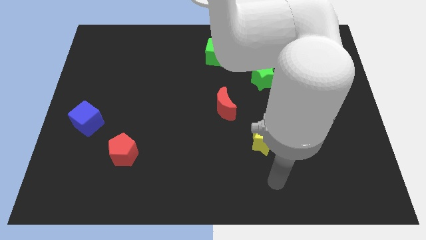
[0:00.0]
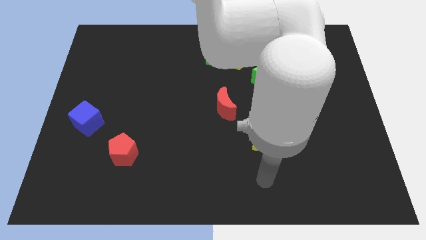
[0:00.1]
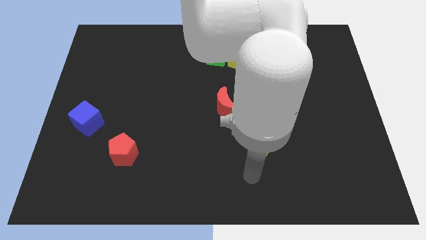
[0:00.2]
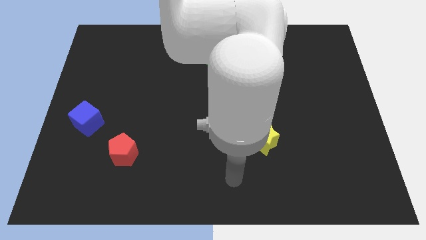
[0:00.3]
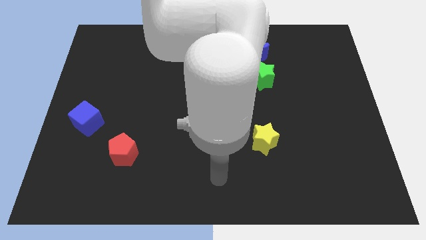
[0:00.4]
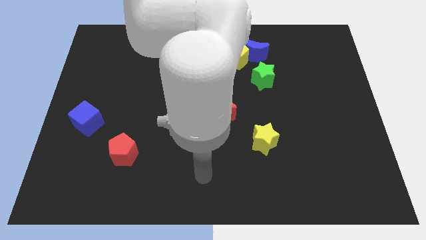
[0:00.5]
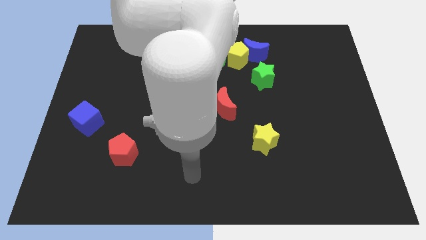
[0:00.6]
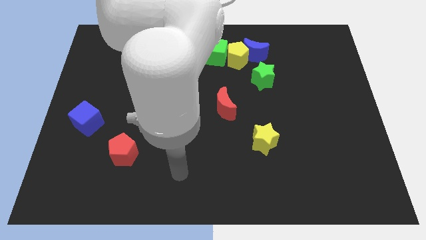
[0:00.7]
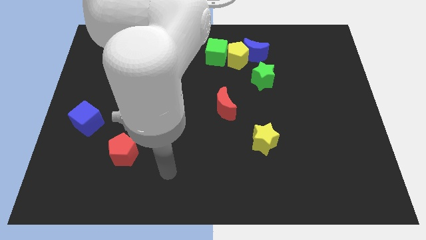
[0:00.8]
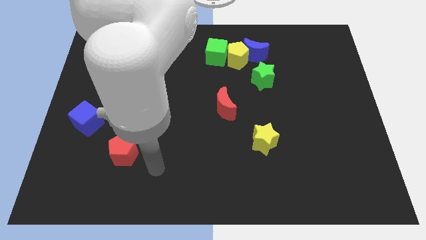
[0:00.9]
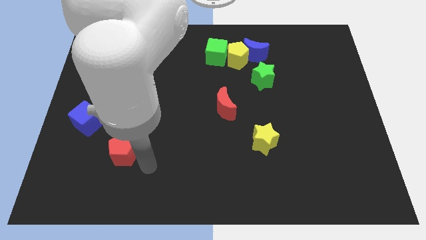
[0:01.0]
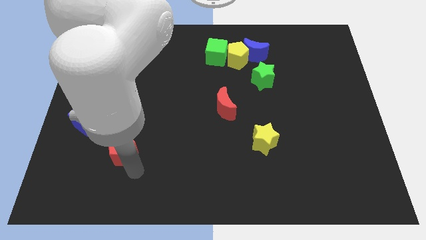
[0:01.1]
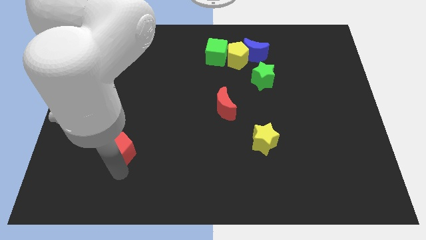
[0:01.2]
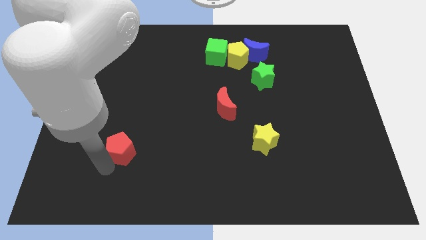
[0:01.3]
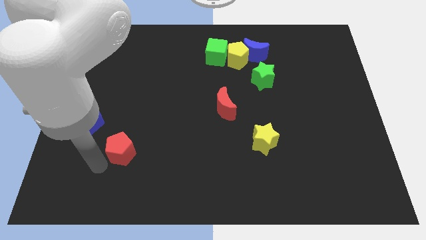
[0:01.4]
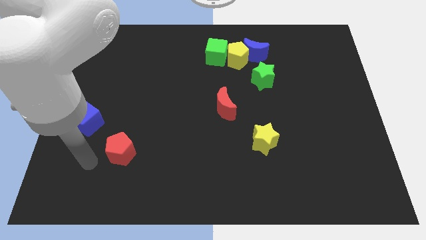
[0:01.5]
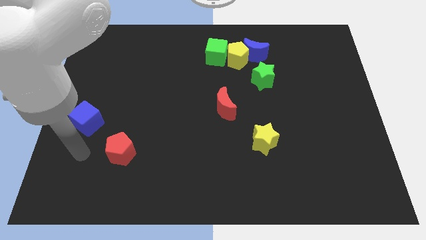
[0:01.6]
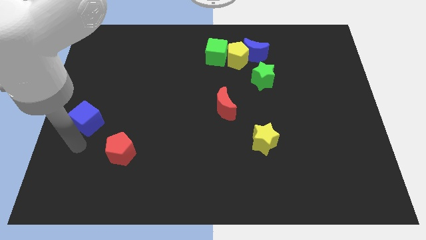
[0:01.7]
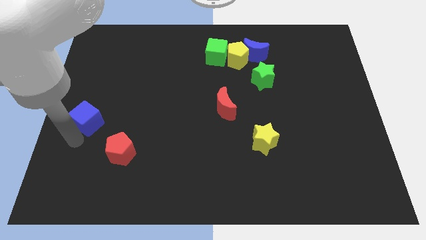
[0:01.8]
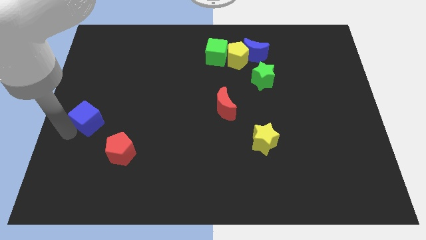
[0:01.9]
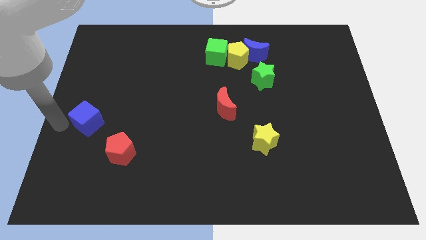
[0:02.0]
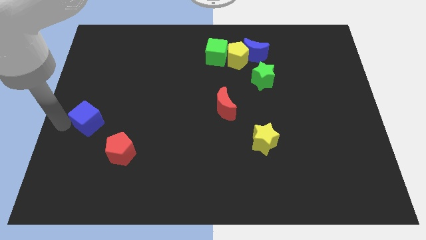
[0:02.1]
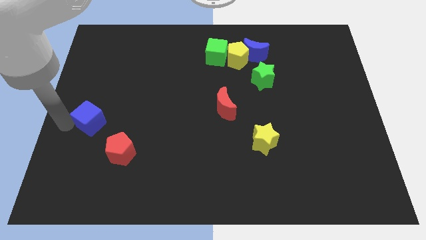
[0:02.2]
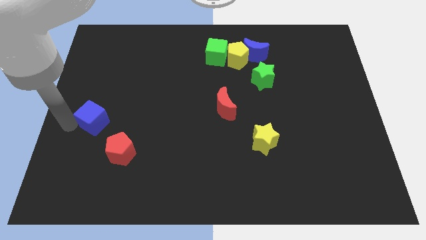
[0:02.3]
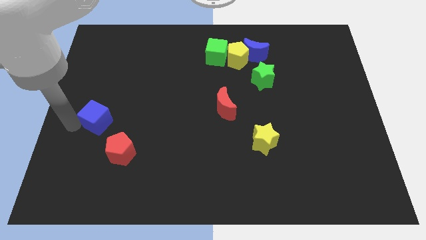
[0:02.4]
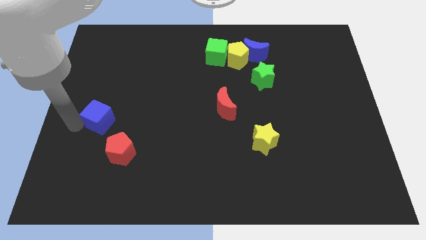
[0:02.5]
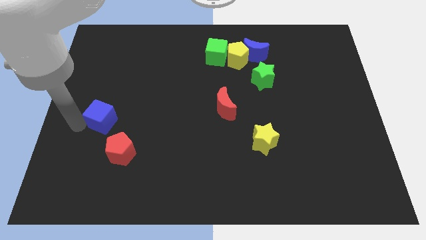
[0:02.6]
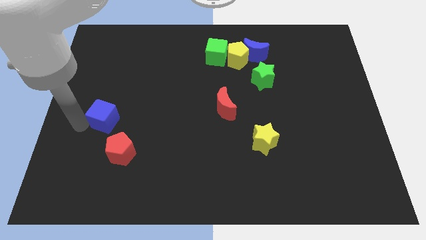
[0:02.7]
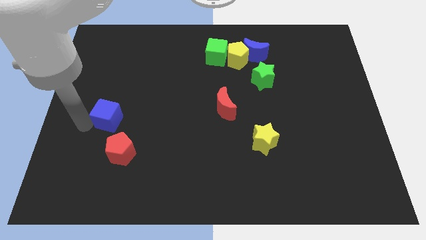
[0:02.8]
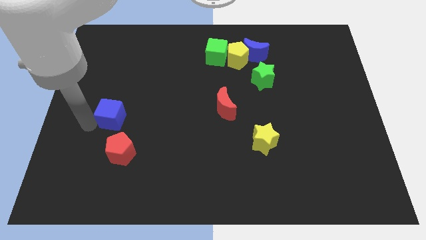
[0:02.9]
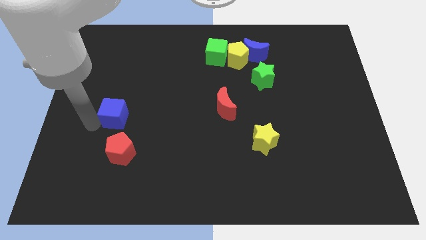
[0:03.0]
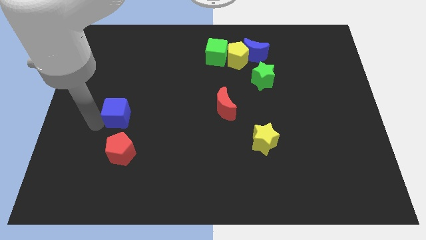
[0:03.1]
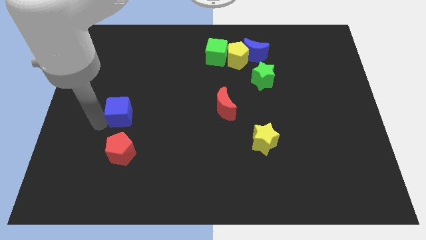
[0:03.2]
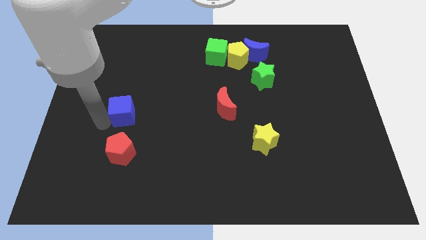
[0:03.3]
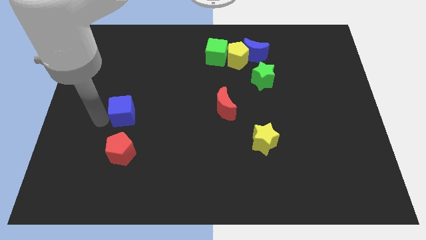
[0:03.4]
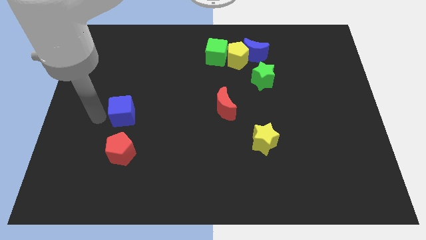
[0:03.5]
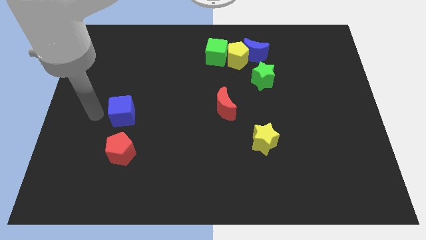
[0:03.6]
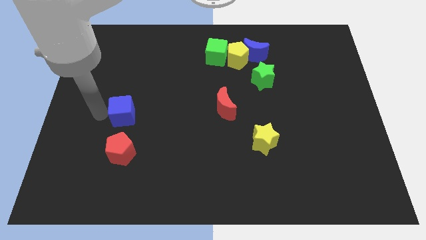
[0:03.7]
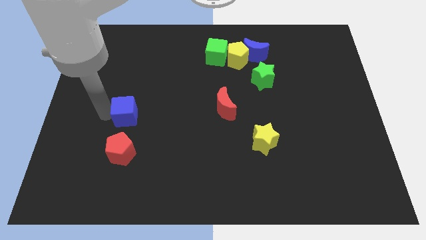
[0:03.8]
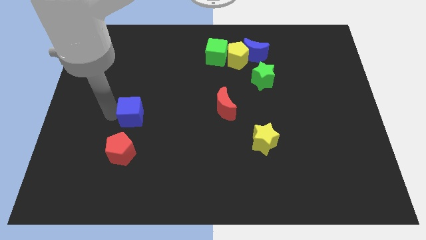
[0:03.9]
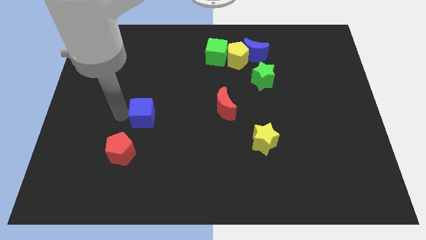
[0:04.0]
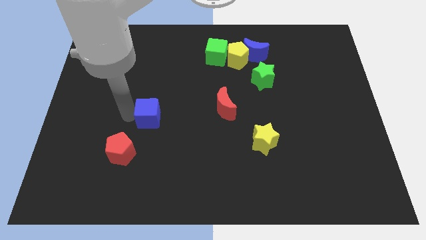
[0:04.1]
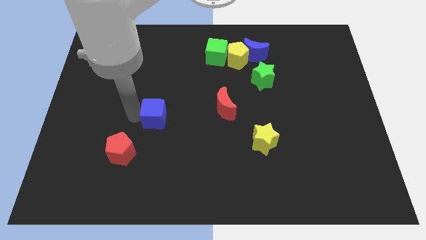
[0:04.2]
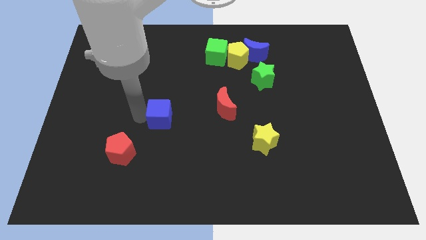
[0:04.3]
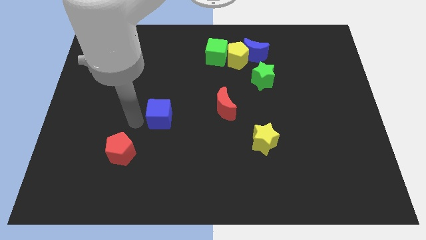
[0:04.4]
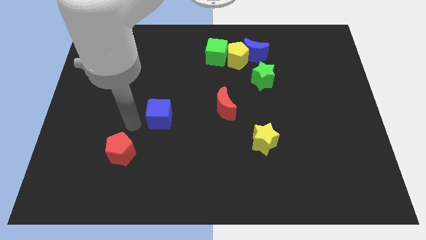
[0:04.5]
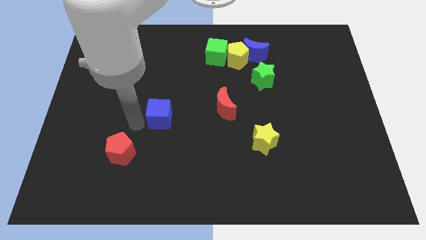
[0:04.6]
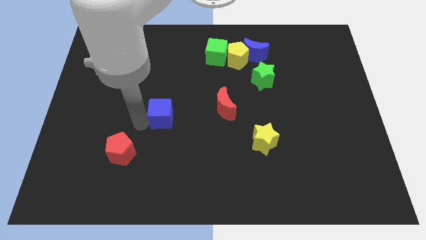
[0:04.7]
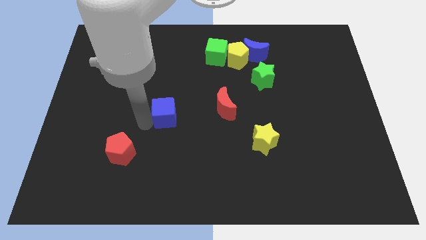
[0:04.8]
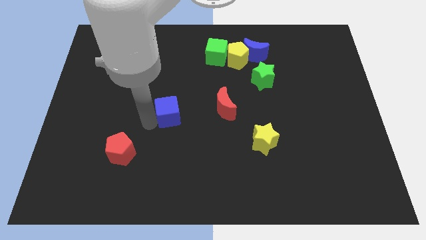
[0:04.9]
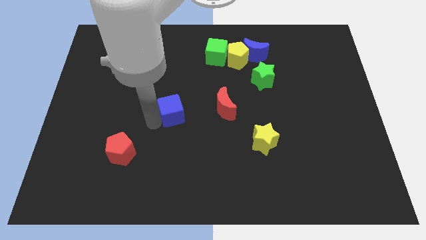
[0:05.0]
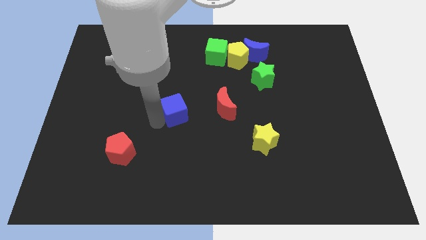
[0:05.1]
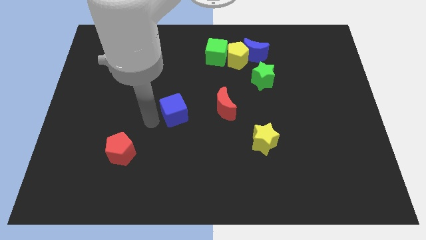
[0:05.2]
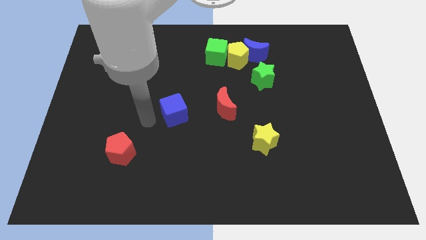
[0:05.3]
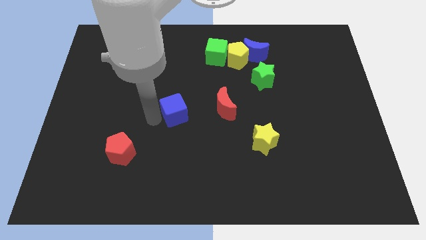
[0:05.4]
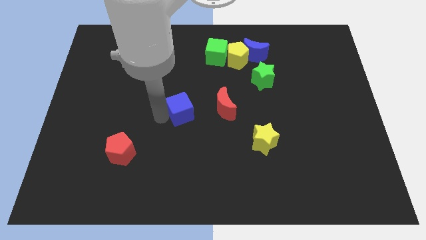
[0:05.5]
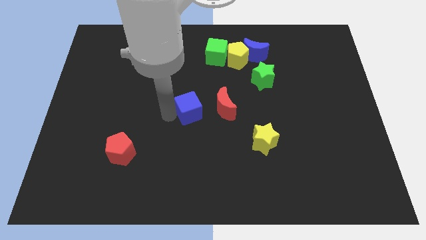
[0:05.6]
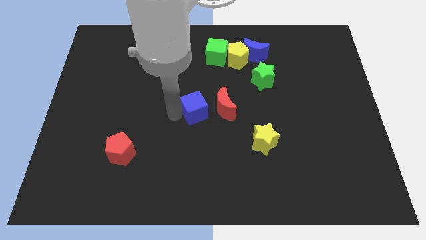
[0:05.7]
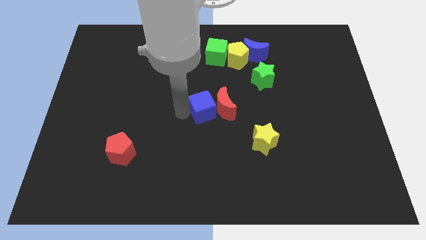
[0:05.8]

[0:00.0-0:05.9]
put the blue cube next to the red moon

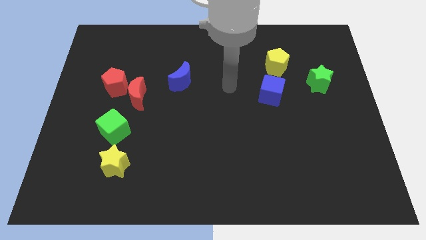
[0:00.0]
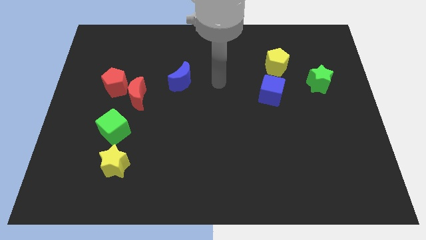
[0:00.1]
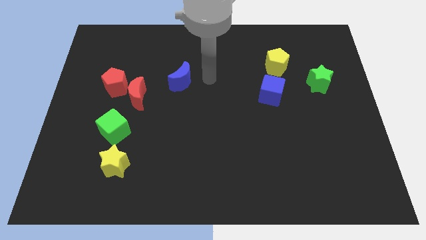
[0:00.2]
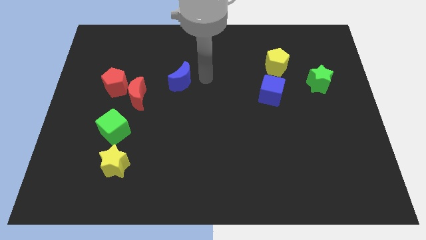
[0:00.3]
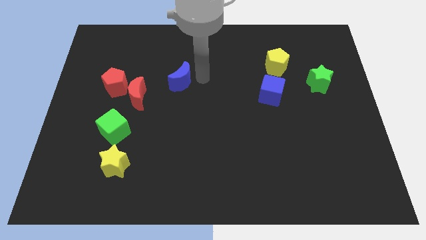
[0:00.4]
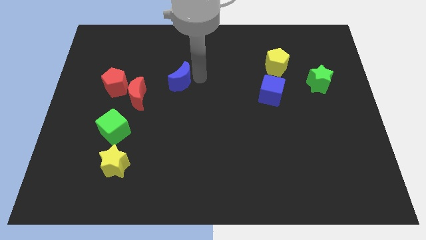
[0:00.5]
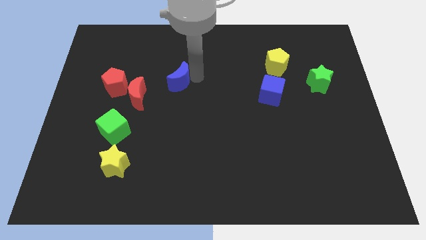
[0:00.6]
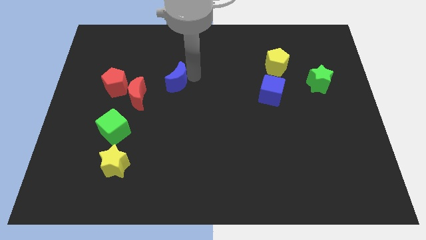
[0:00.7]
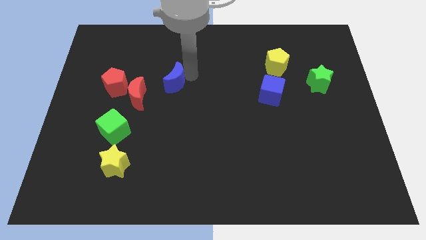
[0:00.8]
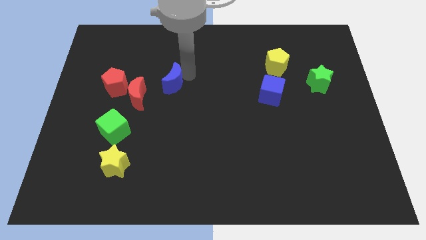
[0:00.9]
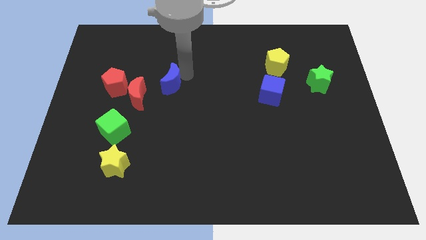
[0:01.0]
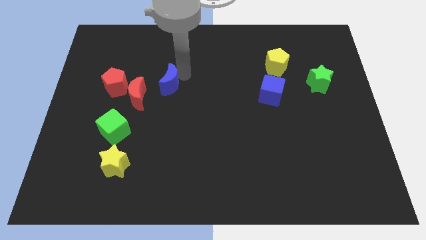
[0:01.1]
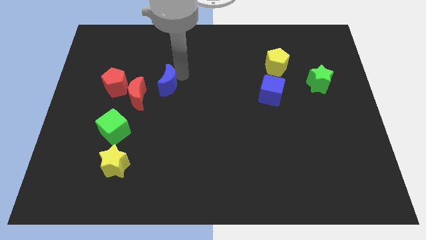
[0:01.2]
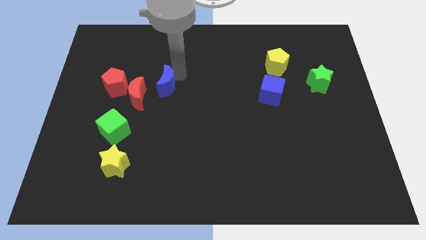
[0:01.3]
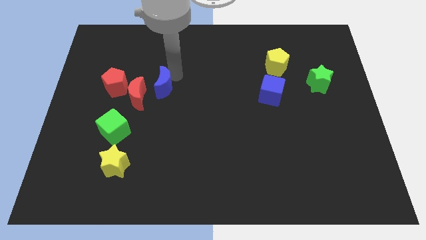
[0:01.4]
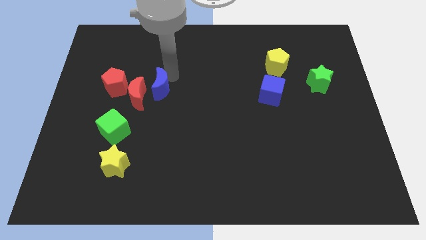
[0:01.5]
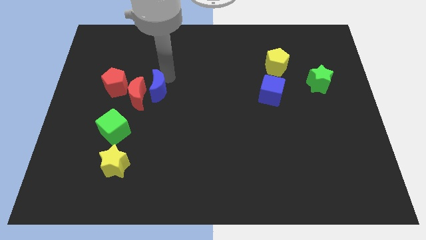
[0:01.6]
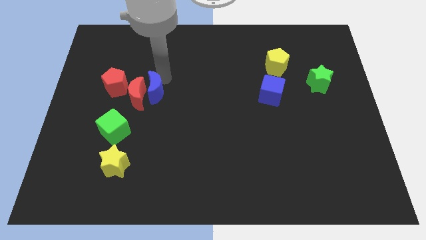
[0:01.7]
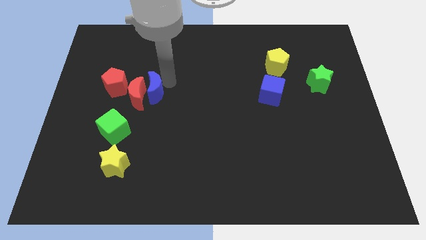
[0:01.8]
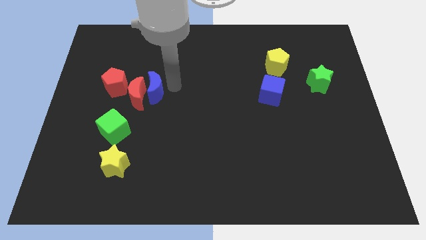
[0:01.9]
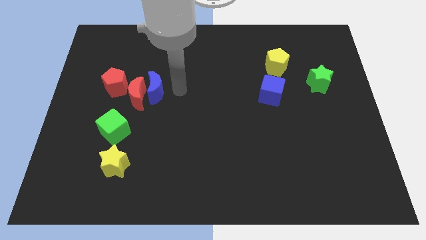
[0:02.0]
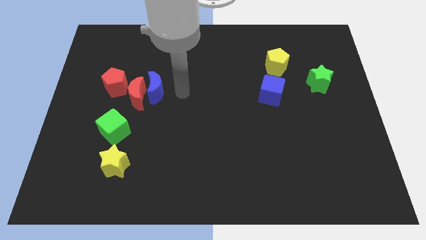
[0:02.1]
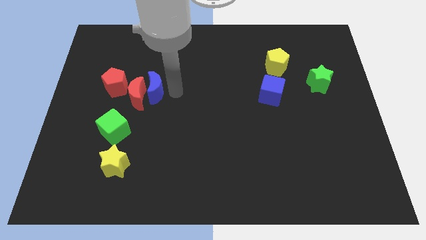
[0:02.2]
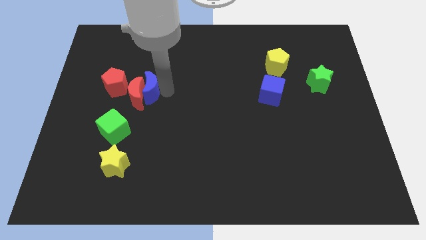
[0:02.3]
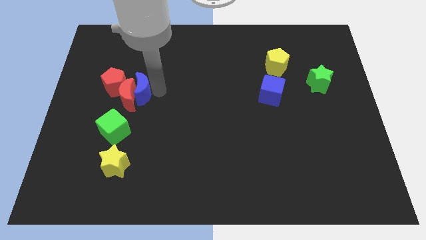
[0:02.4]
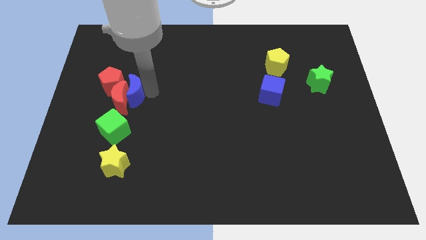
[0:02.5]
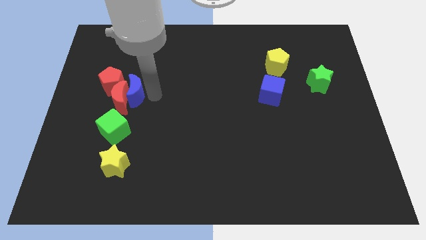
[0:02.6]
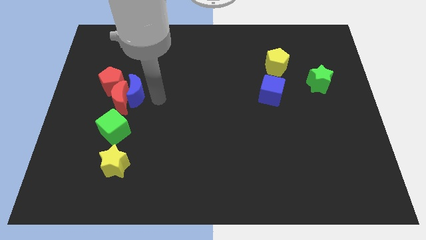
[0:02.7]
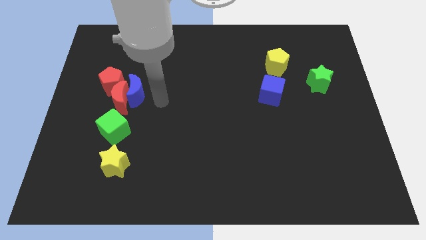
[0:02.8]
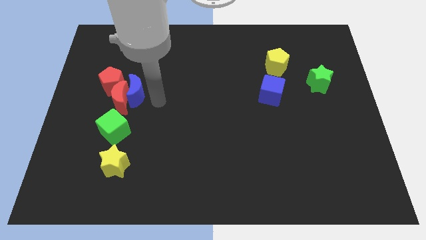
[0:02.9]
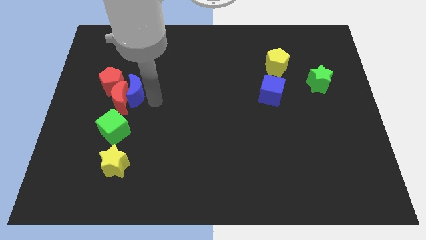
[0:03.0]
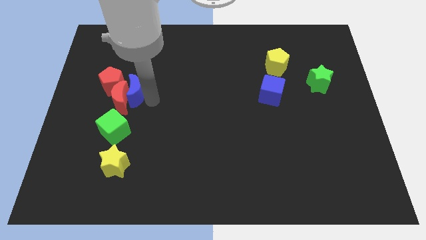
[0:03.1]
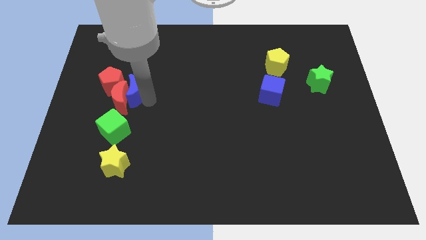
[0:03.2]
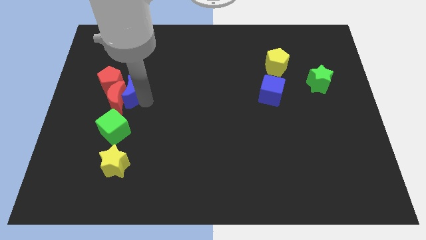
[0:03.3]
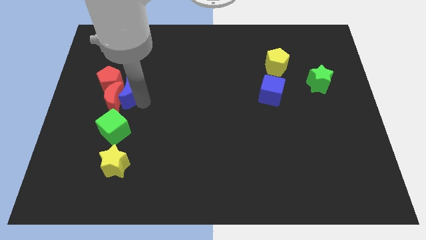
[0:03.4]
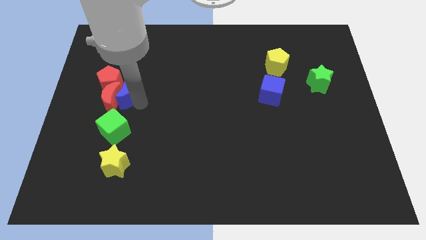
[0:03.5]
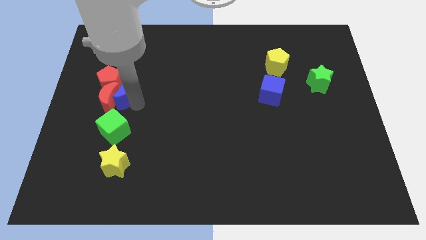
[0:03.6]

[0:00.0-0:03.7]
slide the blue moon towards the red pentagon
